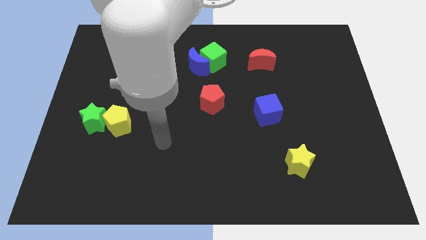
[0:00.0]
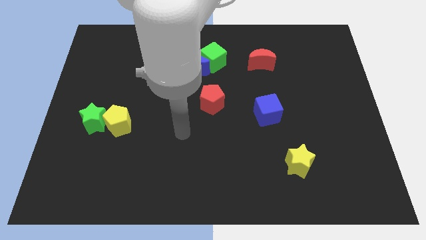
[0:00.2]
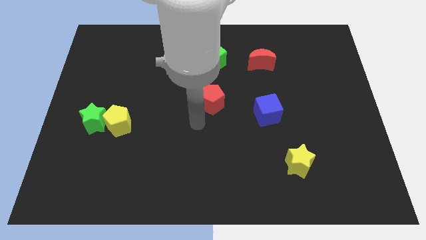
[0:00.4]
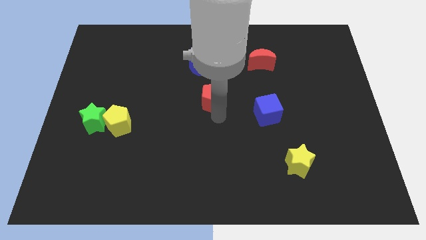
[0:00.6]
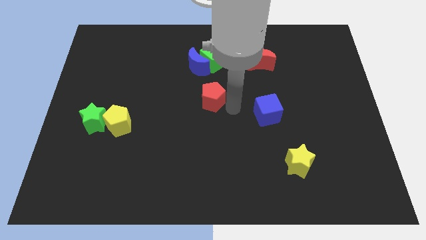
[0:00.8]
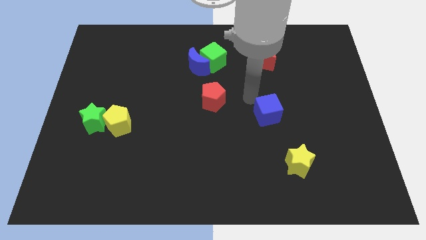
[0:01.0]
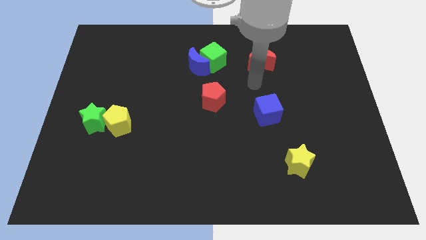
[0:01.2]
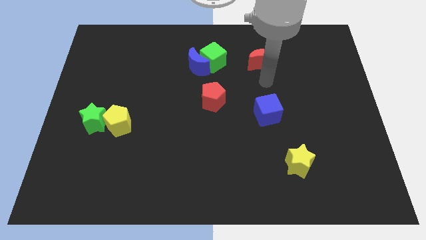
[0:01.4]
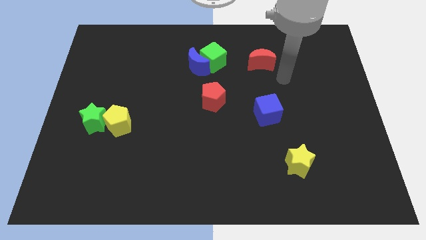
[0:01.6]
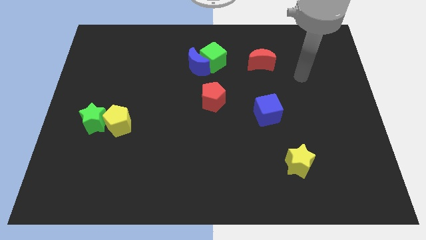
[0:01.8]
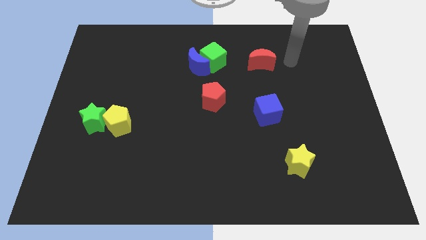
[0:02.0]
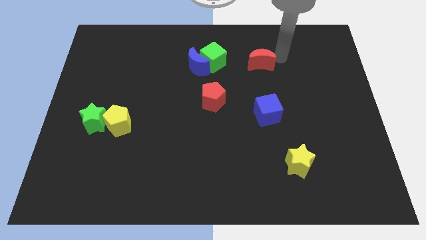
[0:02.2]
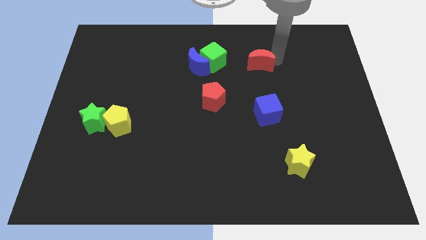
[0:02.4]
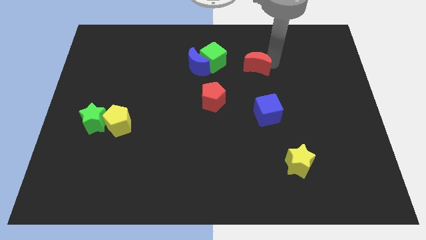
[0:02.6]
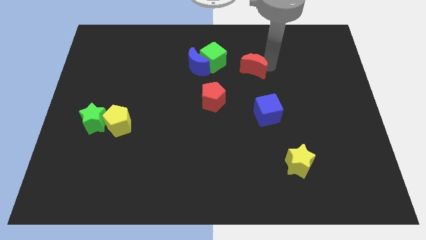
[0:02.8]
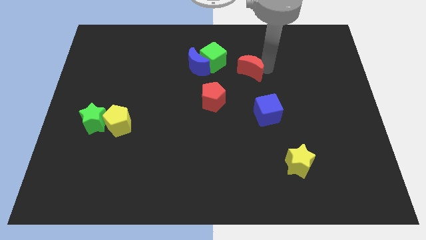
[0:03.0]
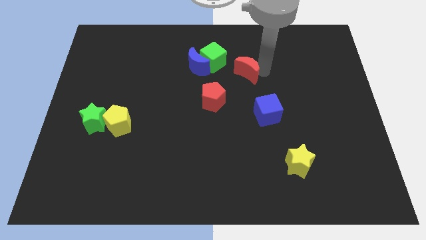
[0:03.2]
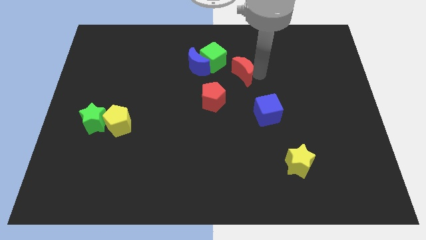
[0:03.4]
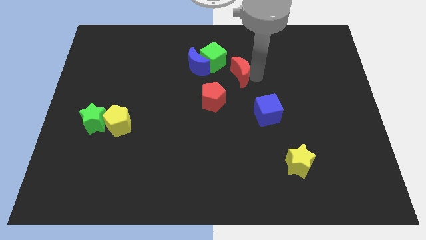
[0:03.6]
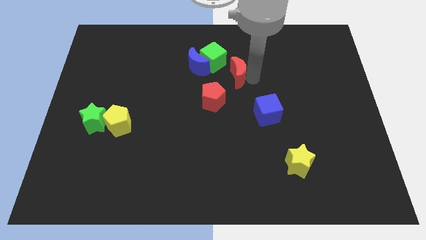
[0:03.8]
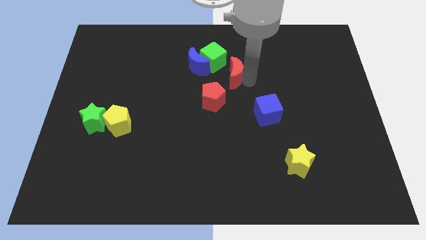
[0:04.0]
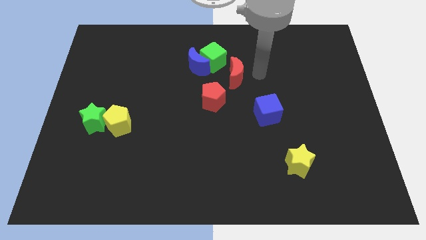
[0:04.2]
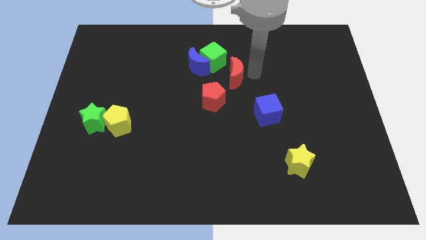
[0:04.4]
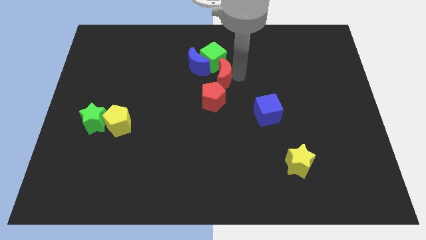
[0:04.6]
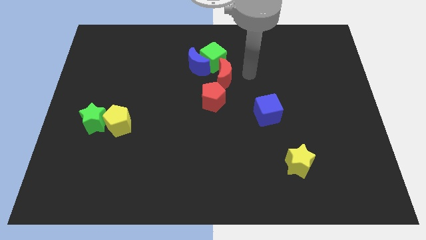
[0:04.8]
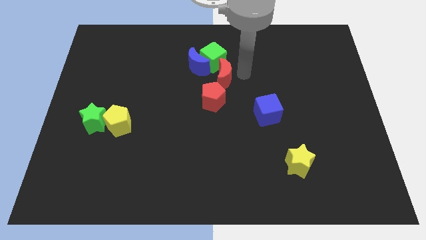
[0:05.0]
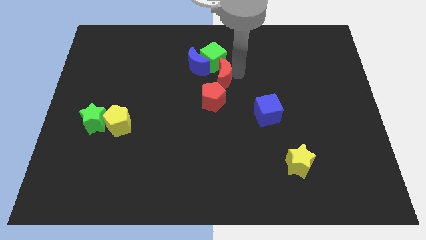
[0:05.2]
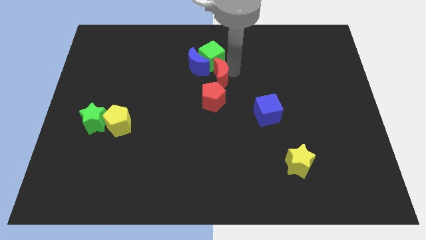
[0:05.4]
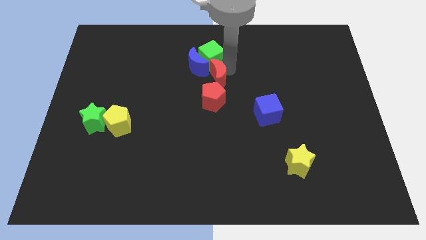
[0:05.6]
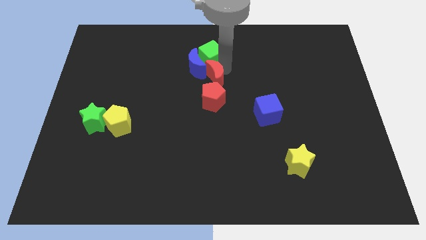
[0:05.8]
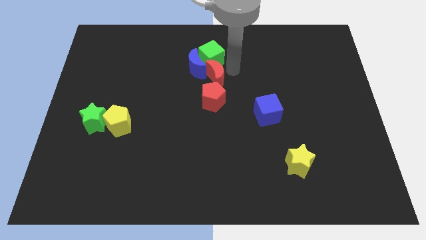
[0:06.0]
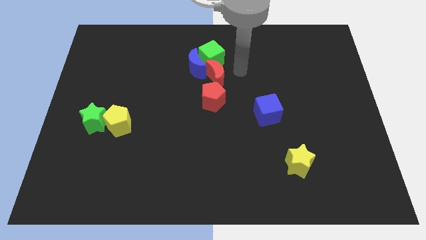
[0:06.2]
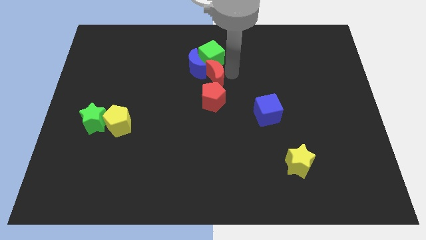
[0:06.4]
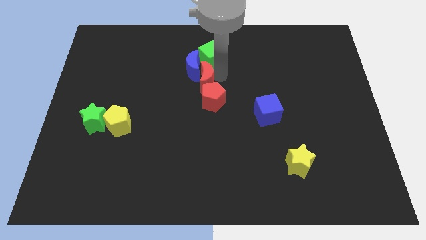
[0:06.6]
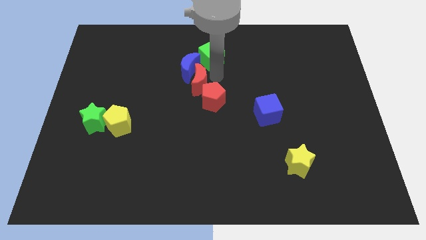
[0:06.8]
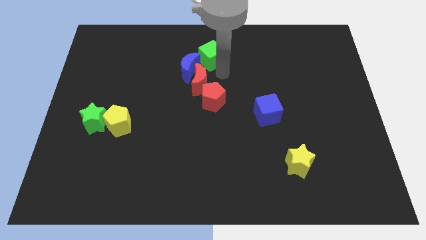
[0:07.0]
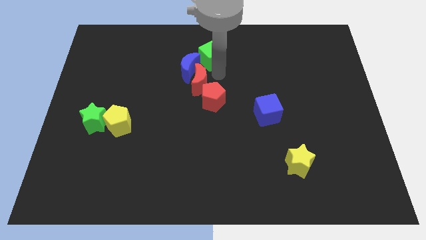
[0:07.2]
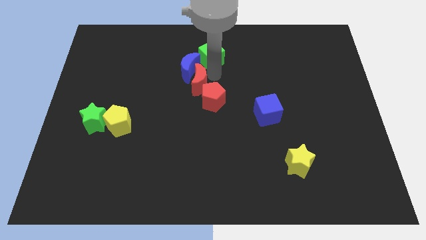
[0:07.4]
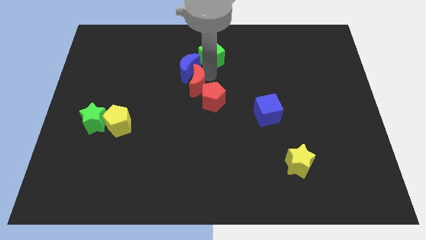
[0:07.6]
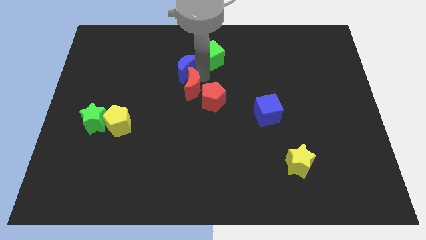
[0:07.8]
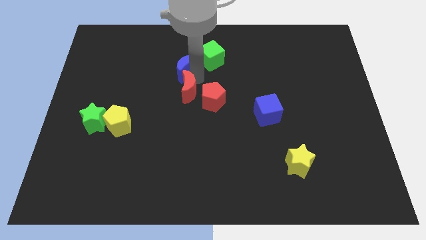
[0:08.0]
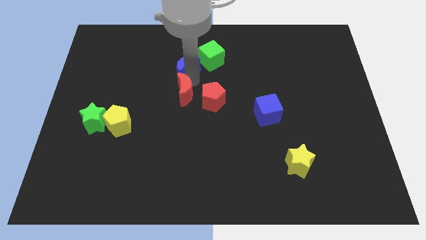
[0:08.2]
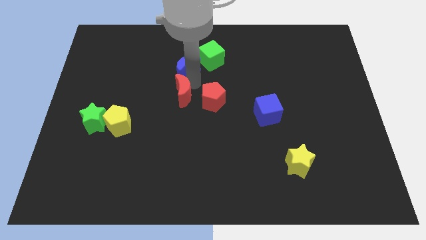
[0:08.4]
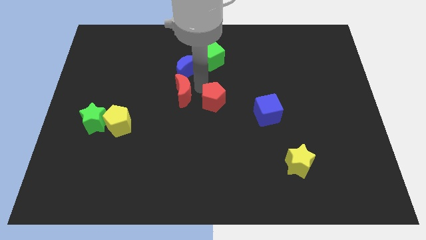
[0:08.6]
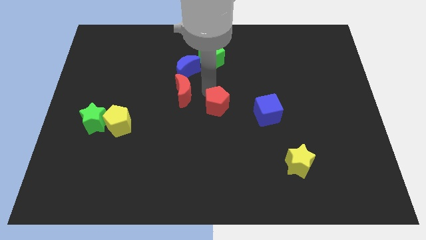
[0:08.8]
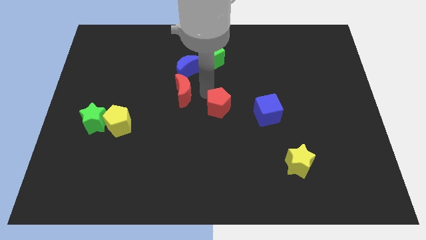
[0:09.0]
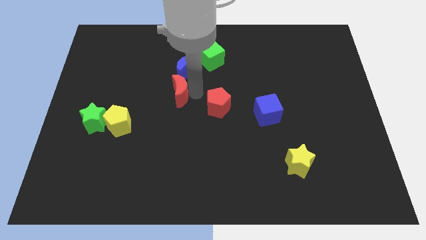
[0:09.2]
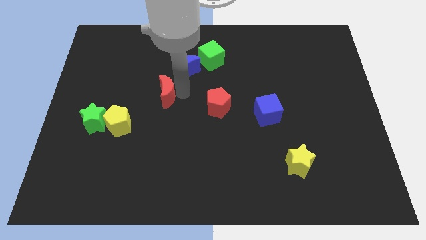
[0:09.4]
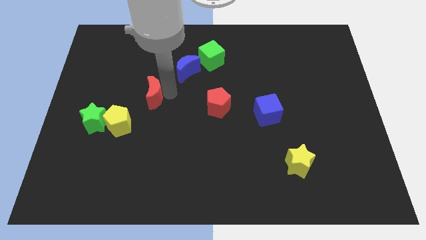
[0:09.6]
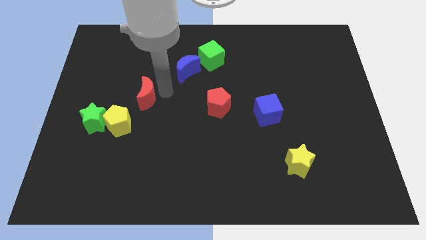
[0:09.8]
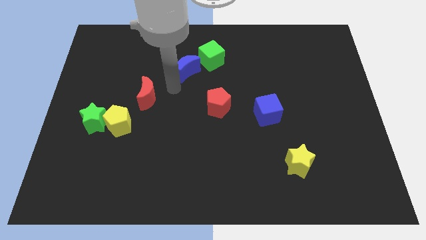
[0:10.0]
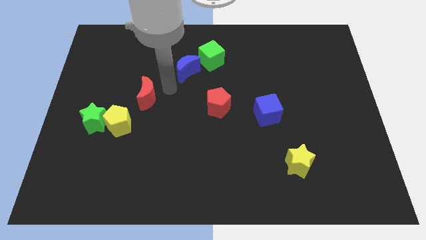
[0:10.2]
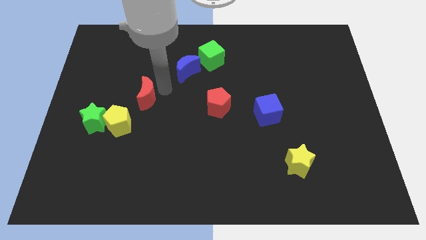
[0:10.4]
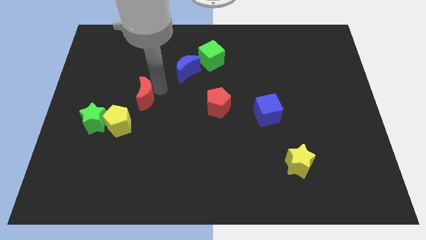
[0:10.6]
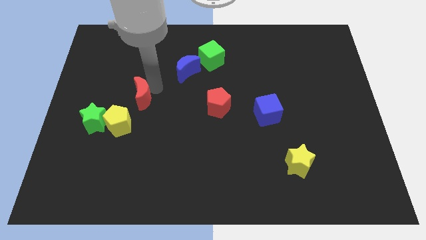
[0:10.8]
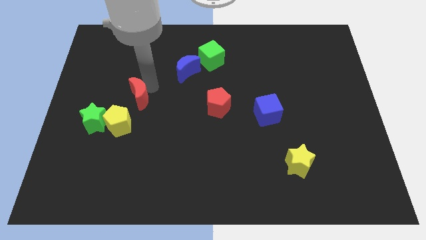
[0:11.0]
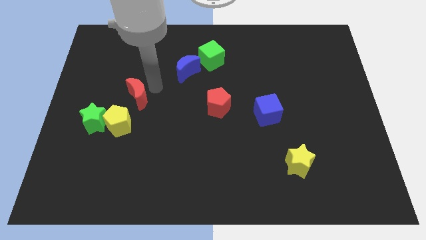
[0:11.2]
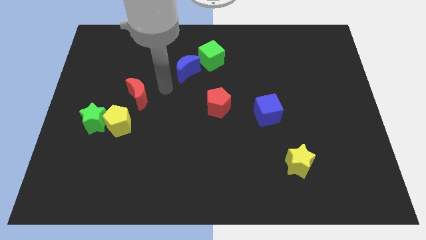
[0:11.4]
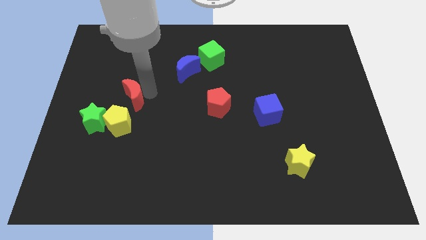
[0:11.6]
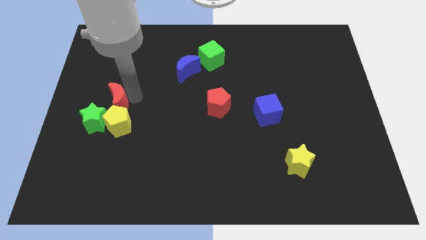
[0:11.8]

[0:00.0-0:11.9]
slide the red moon to the top left side of the yellow pentagon

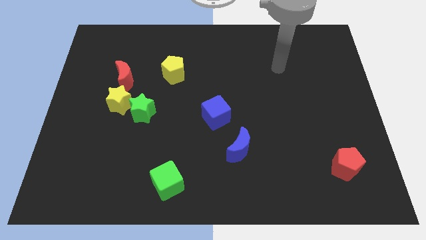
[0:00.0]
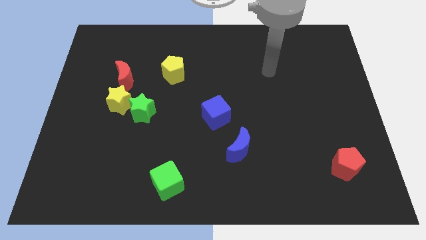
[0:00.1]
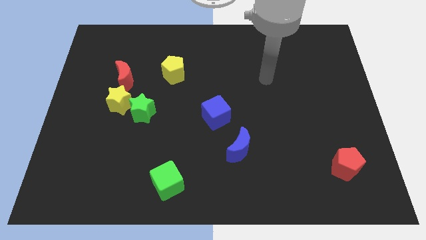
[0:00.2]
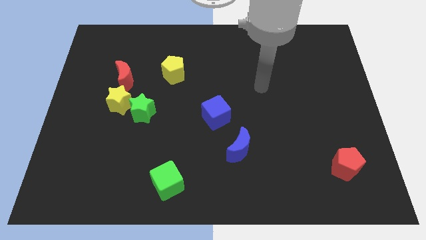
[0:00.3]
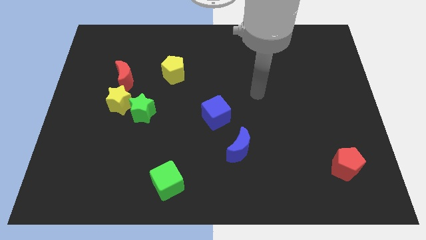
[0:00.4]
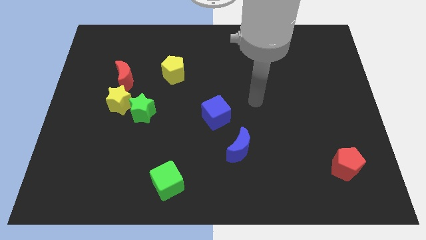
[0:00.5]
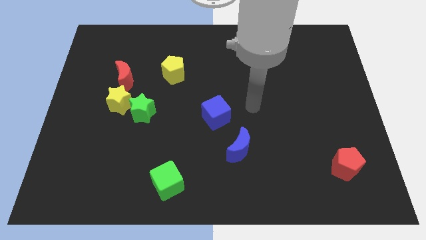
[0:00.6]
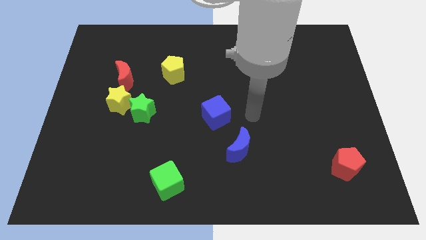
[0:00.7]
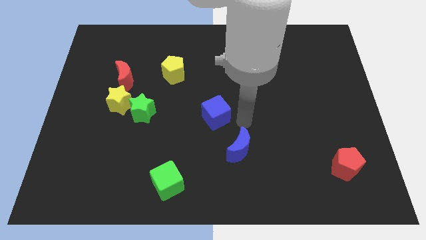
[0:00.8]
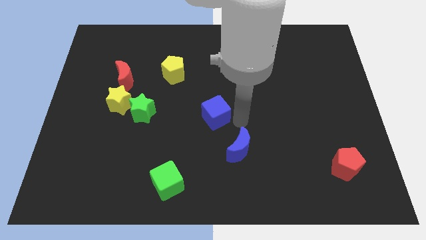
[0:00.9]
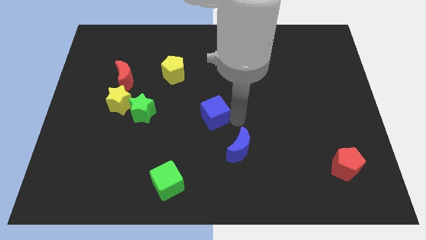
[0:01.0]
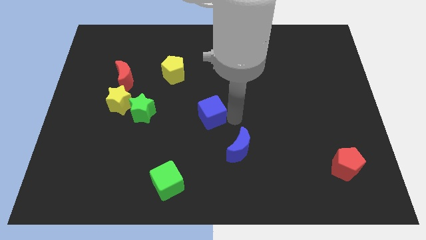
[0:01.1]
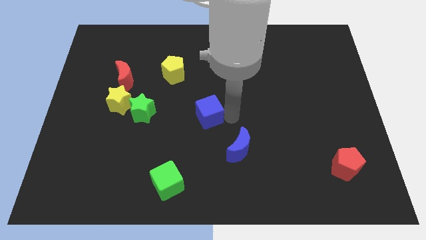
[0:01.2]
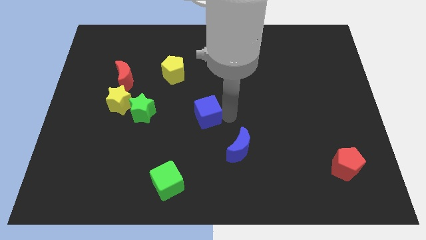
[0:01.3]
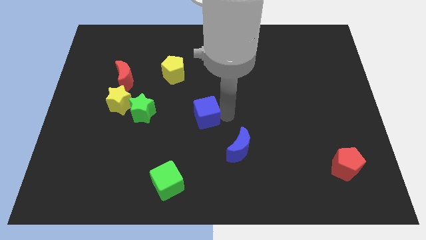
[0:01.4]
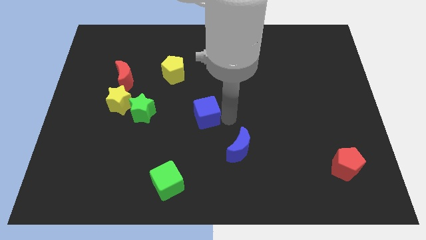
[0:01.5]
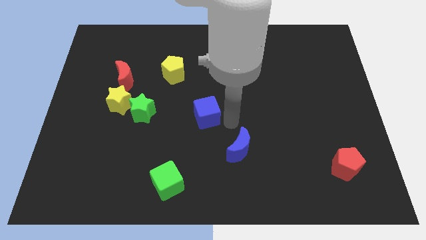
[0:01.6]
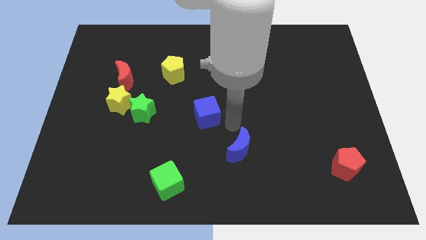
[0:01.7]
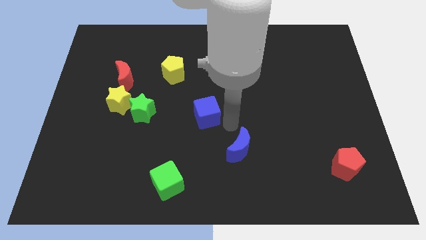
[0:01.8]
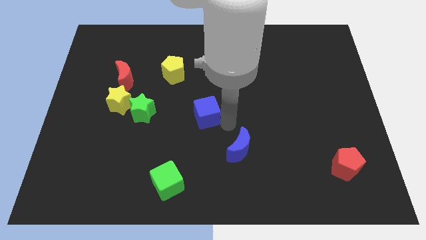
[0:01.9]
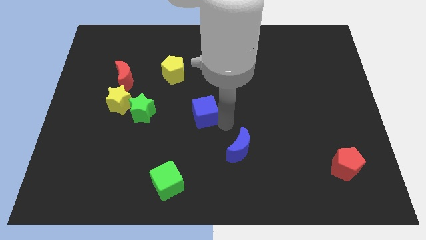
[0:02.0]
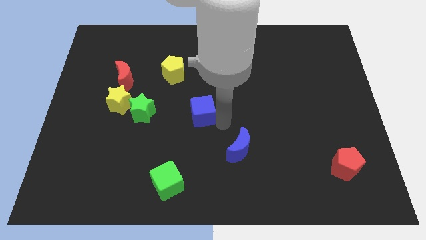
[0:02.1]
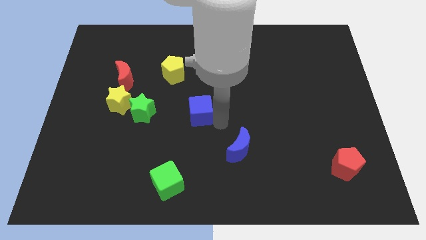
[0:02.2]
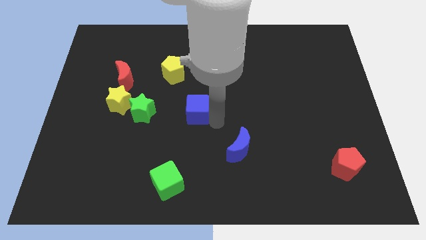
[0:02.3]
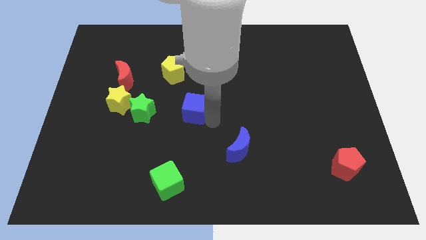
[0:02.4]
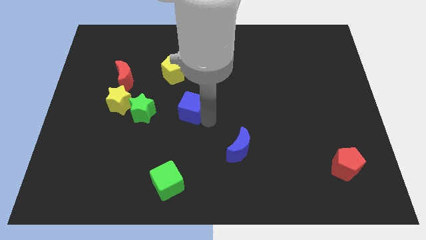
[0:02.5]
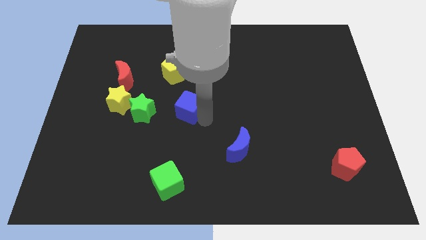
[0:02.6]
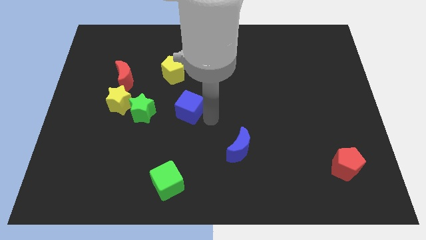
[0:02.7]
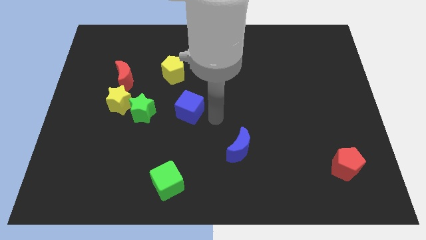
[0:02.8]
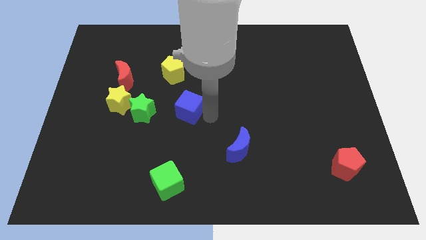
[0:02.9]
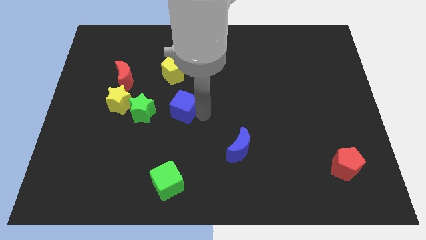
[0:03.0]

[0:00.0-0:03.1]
move the blue cube to the right of the yellow star
